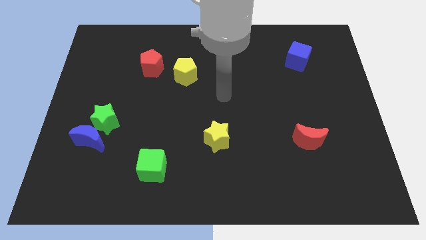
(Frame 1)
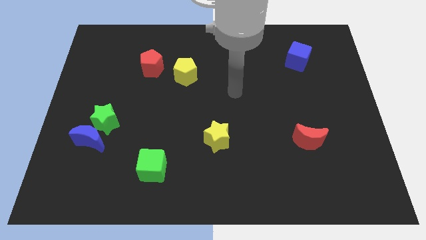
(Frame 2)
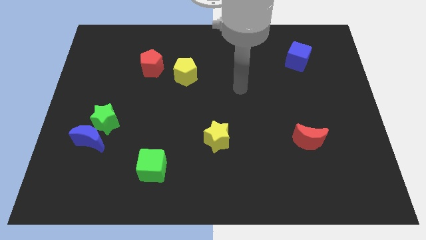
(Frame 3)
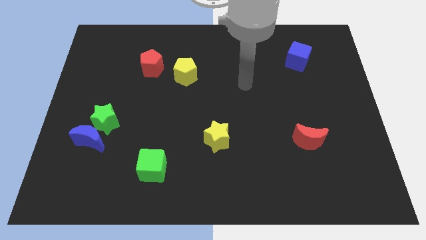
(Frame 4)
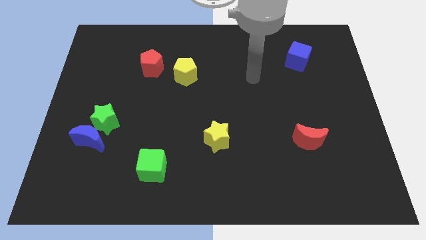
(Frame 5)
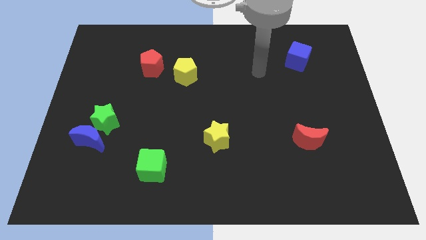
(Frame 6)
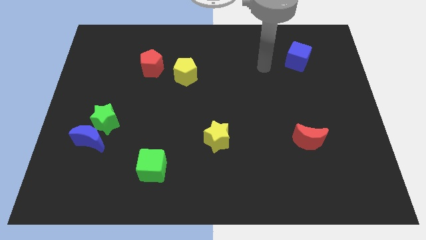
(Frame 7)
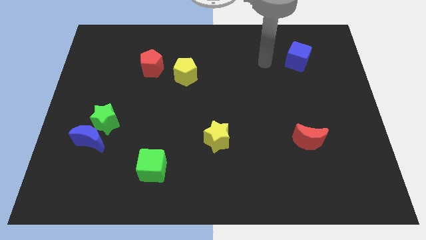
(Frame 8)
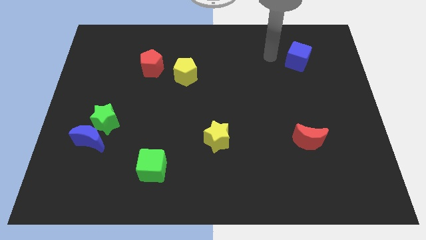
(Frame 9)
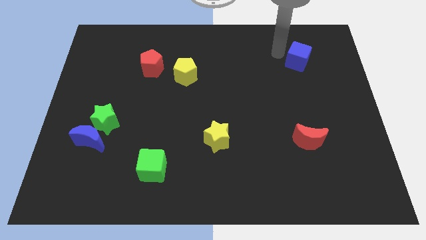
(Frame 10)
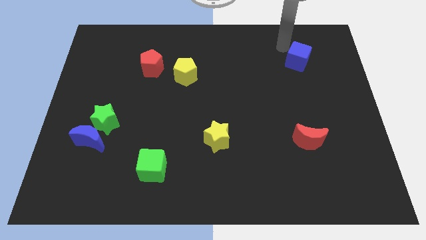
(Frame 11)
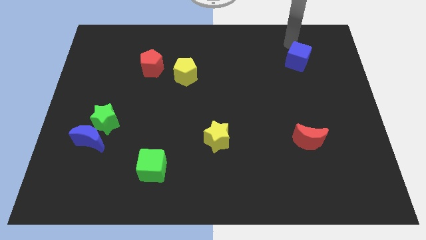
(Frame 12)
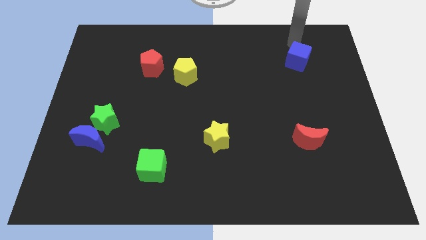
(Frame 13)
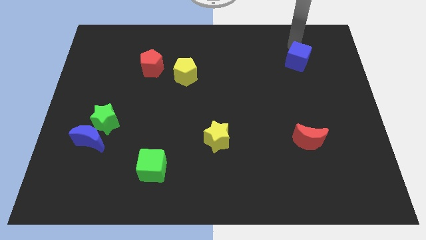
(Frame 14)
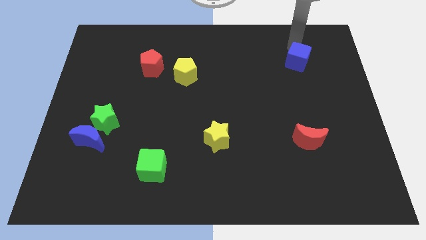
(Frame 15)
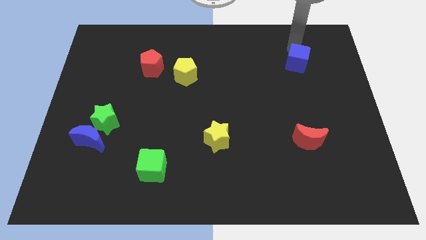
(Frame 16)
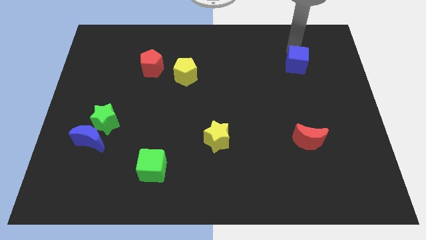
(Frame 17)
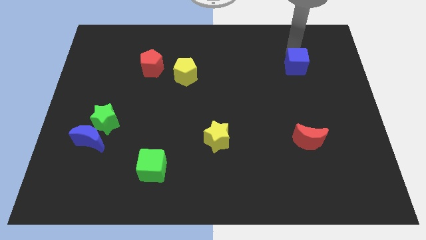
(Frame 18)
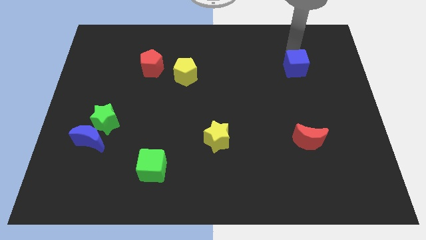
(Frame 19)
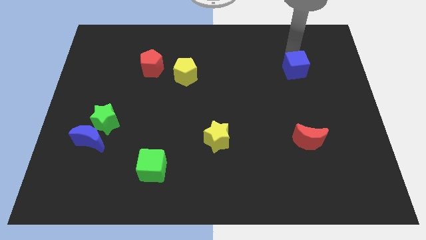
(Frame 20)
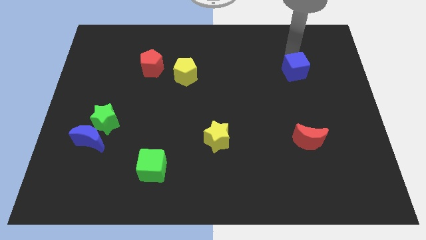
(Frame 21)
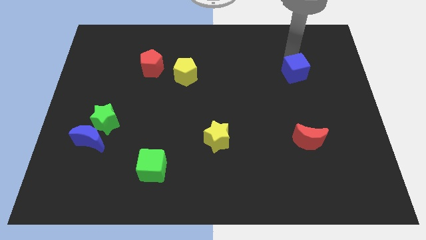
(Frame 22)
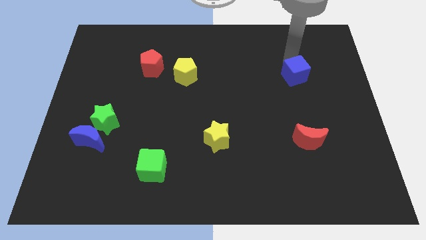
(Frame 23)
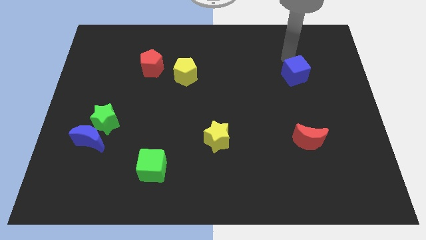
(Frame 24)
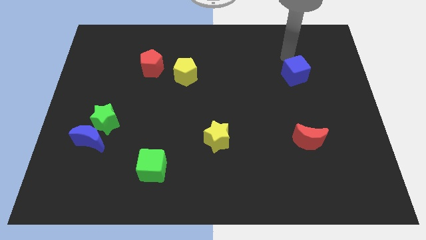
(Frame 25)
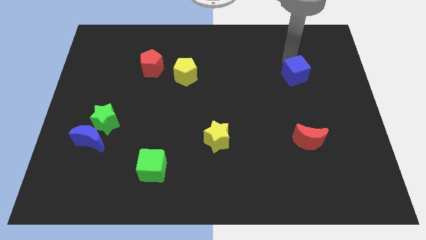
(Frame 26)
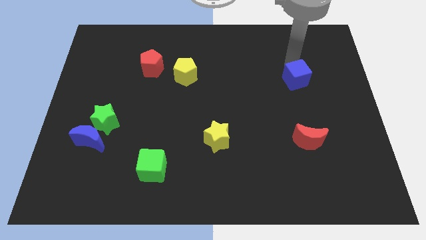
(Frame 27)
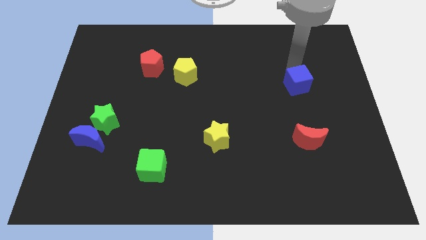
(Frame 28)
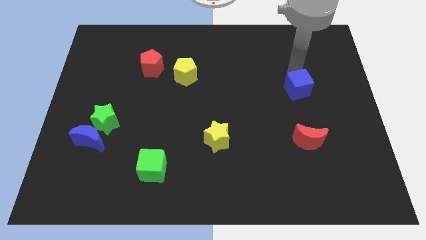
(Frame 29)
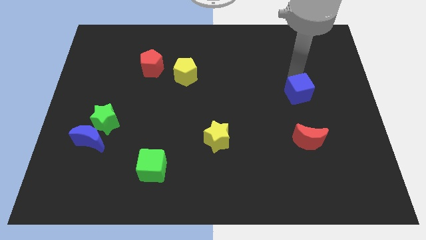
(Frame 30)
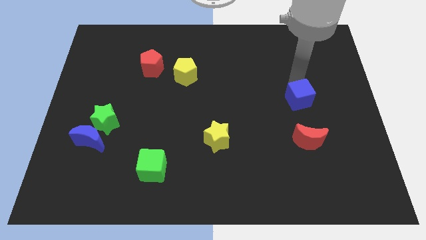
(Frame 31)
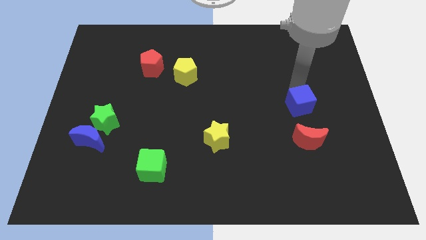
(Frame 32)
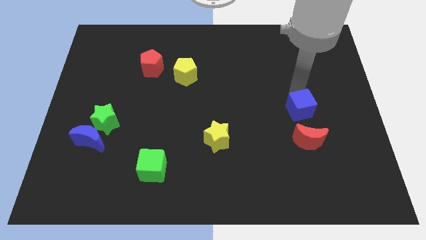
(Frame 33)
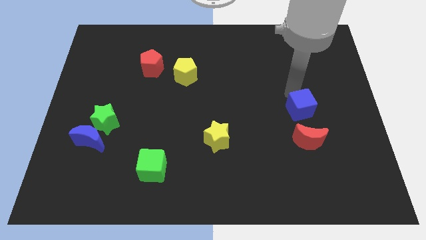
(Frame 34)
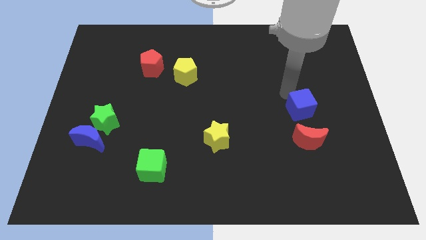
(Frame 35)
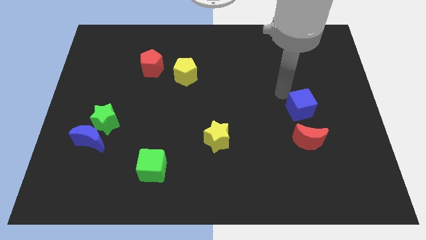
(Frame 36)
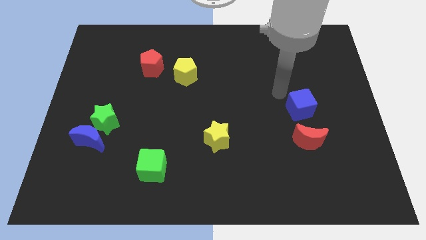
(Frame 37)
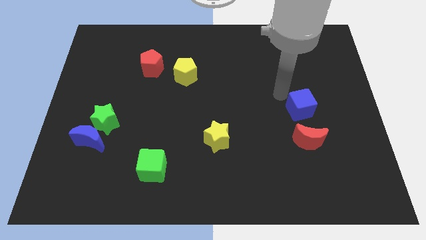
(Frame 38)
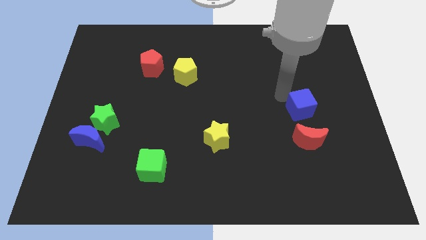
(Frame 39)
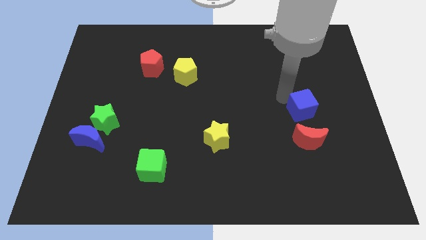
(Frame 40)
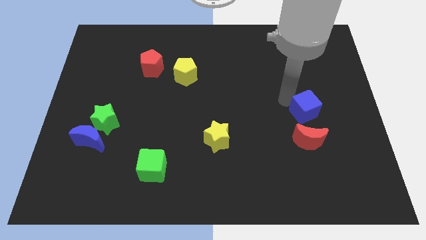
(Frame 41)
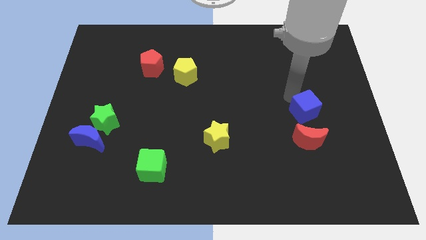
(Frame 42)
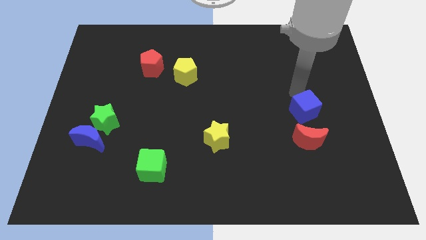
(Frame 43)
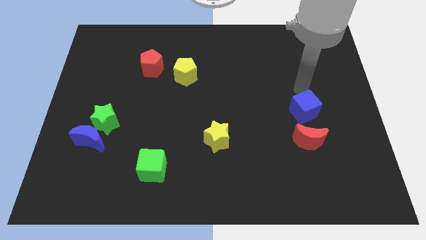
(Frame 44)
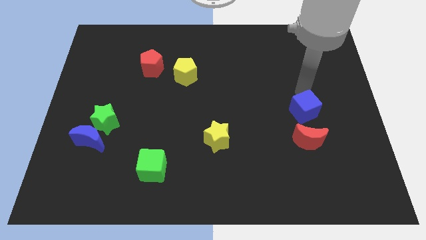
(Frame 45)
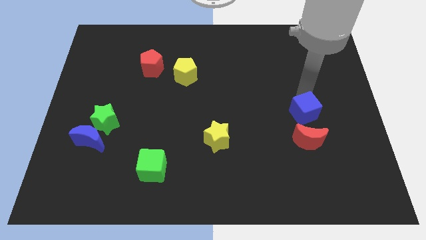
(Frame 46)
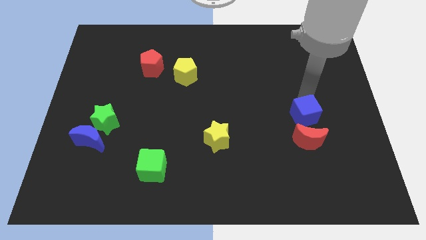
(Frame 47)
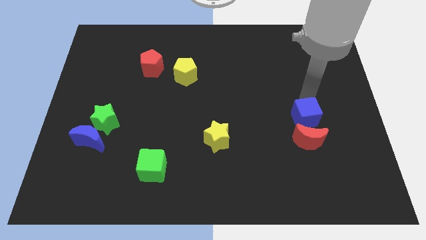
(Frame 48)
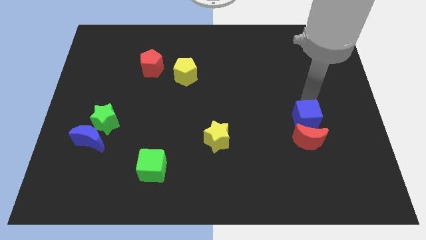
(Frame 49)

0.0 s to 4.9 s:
slide the blue cube next to the red moon

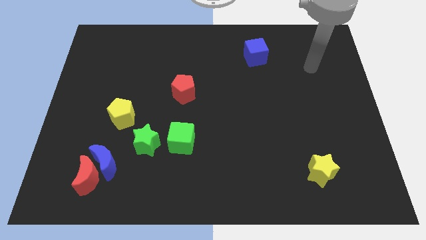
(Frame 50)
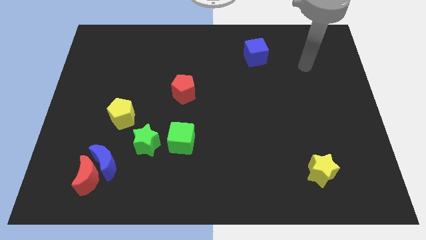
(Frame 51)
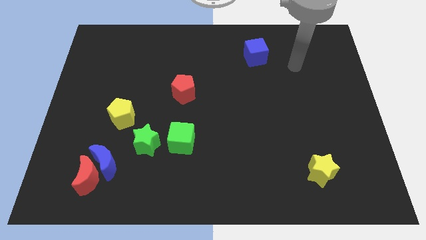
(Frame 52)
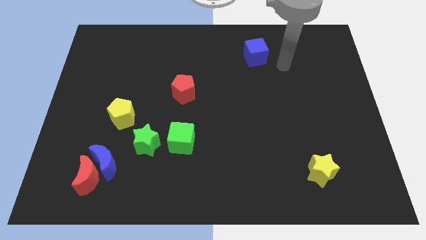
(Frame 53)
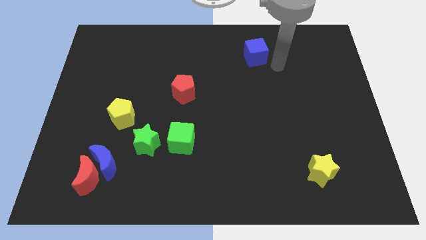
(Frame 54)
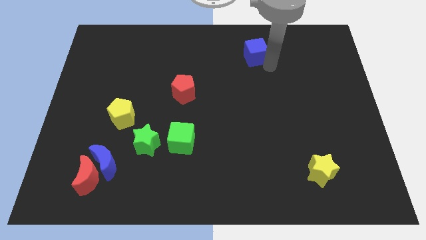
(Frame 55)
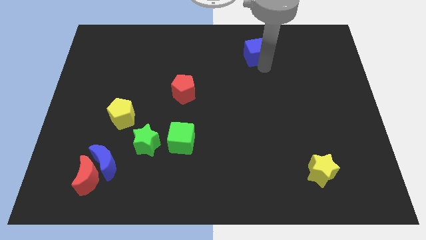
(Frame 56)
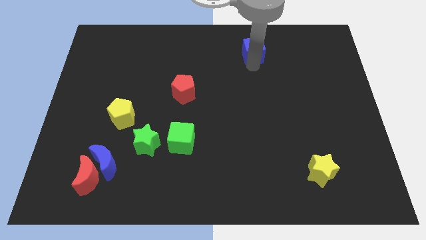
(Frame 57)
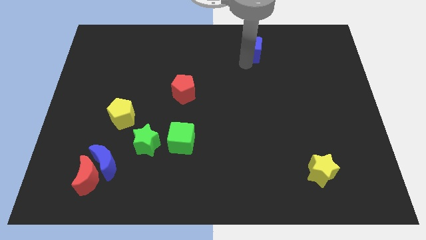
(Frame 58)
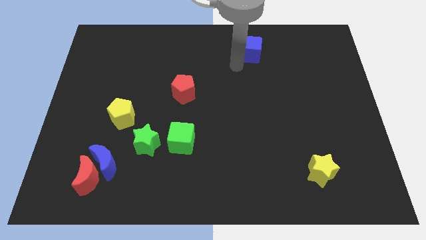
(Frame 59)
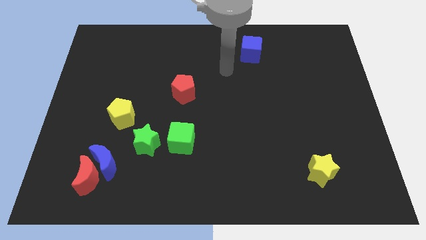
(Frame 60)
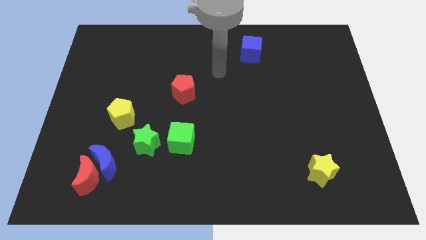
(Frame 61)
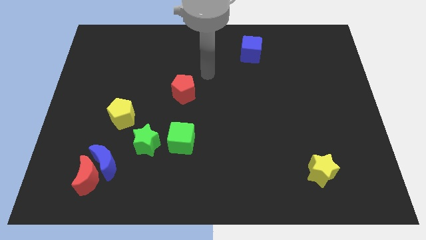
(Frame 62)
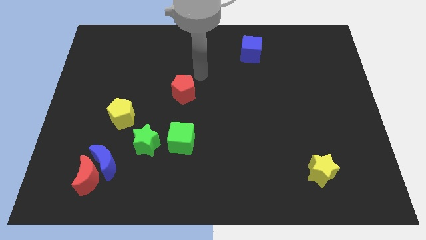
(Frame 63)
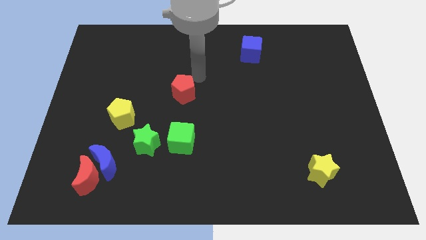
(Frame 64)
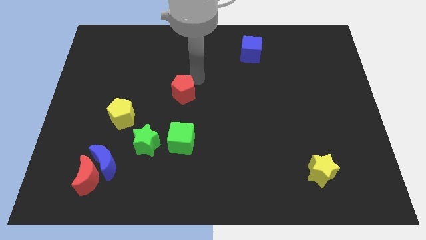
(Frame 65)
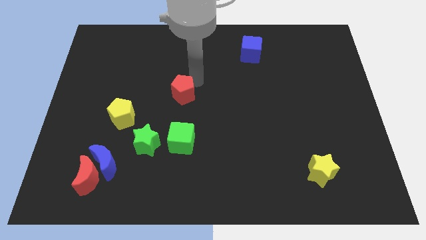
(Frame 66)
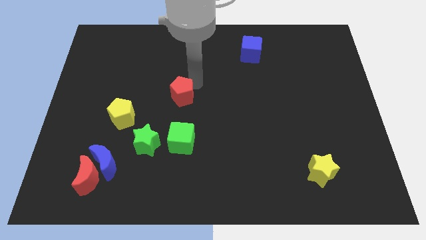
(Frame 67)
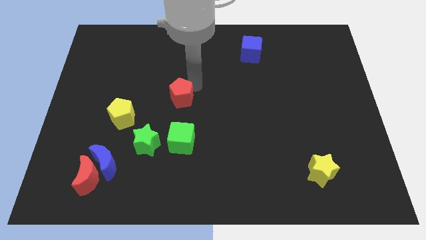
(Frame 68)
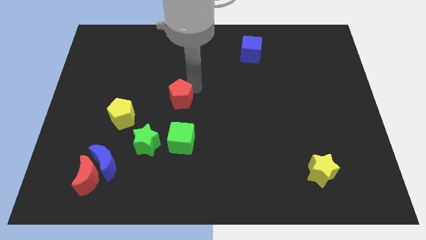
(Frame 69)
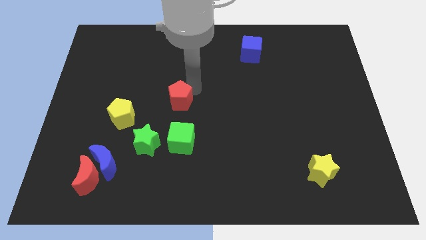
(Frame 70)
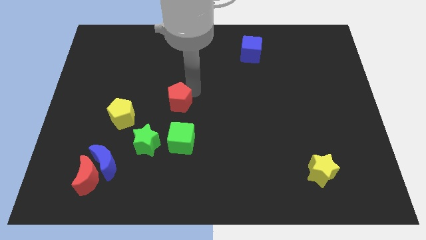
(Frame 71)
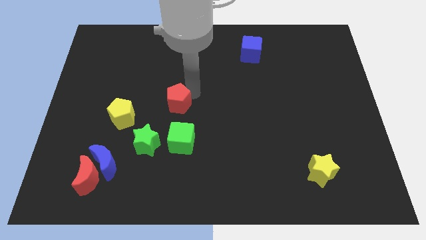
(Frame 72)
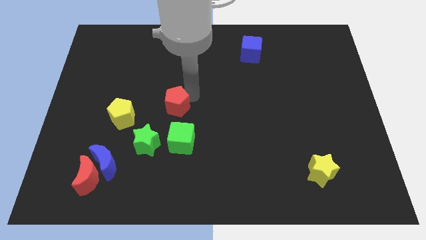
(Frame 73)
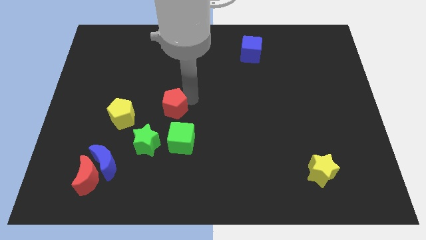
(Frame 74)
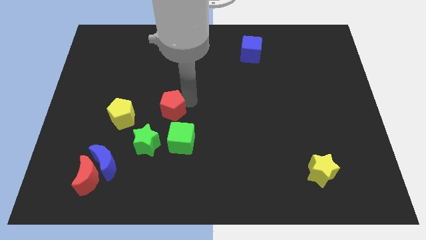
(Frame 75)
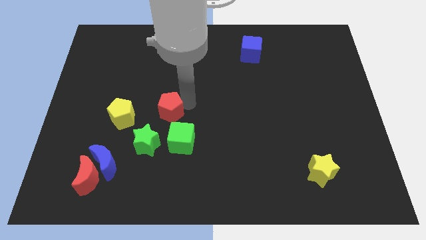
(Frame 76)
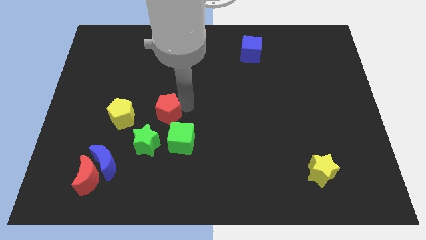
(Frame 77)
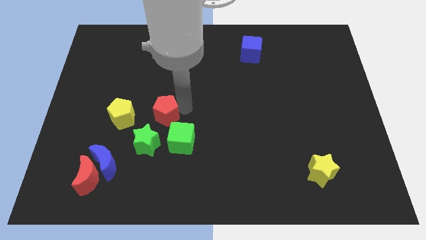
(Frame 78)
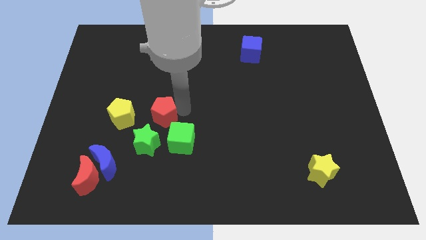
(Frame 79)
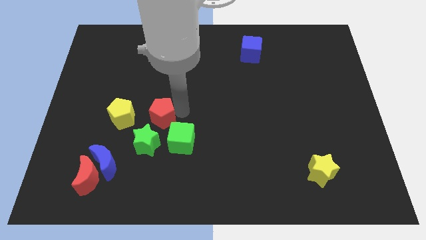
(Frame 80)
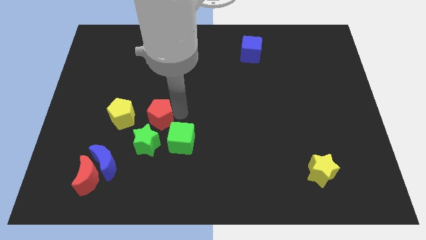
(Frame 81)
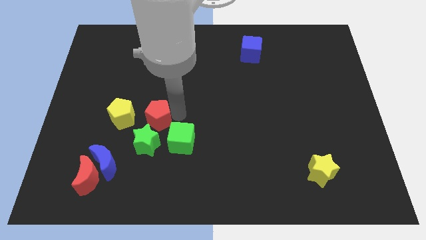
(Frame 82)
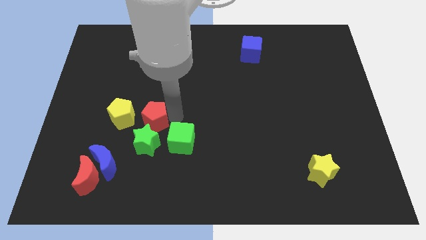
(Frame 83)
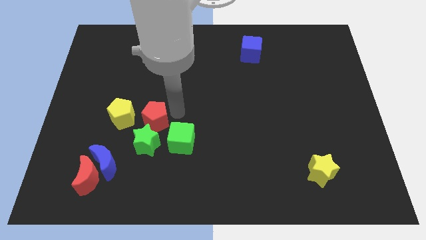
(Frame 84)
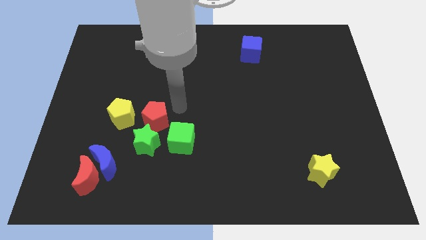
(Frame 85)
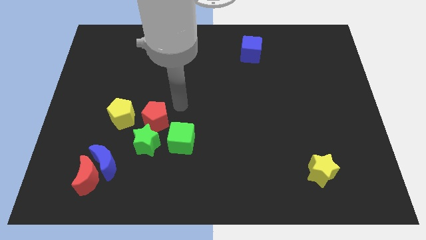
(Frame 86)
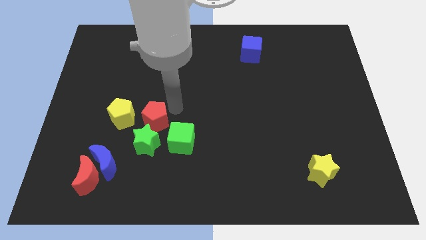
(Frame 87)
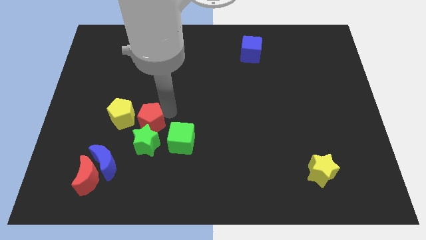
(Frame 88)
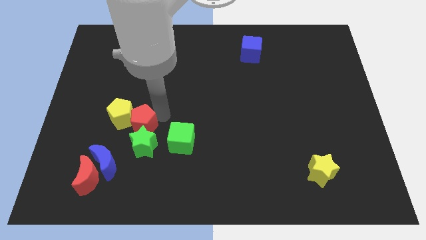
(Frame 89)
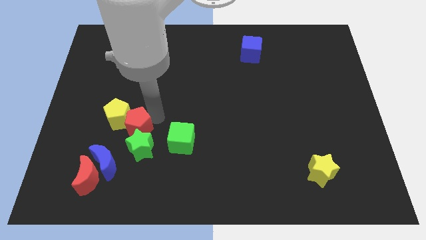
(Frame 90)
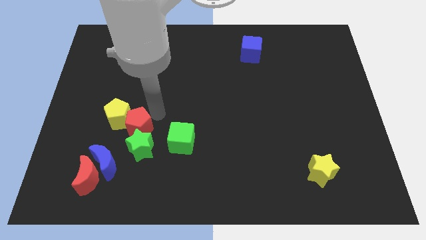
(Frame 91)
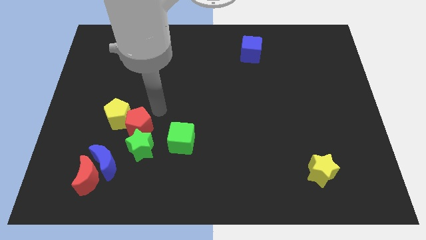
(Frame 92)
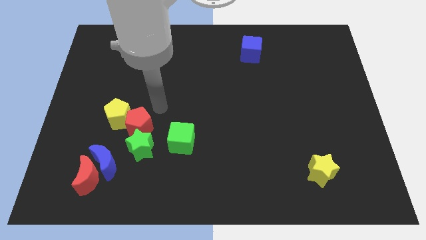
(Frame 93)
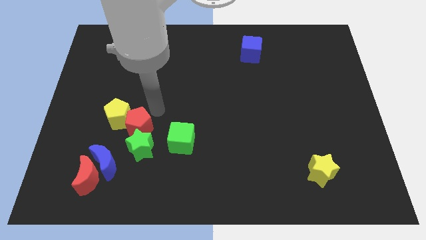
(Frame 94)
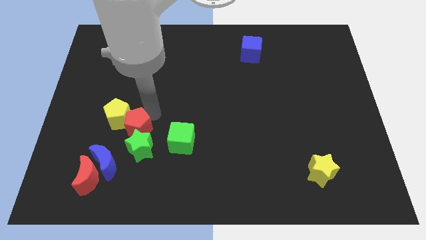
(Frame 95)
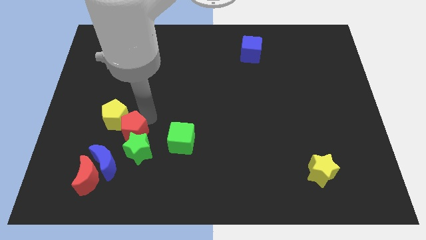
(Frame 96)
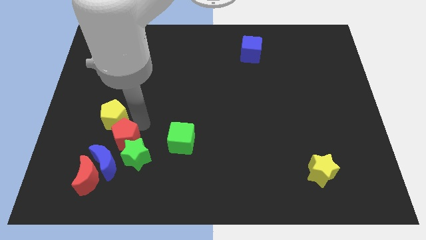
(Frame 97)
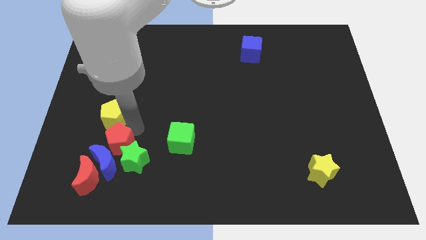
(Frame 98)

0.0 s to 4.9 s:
slide the red pentagon to the blue moon
